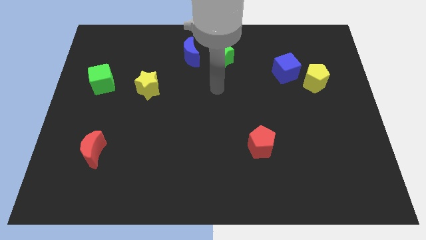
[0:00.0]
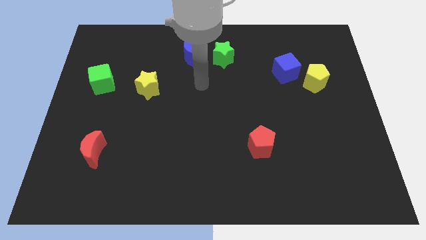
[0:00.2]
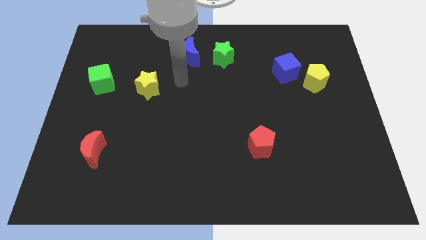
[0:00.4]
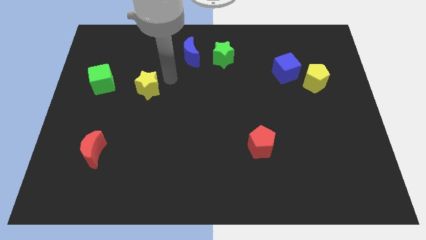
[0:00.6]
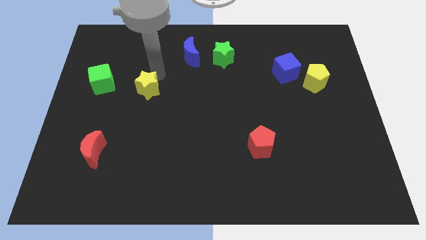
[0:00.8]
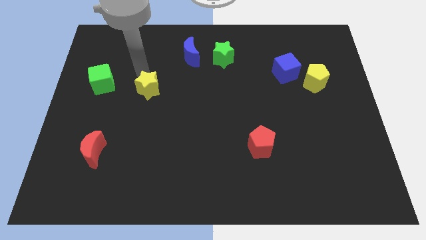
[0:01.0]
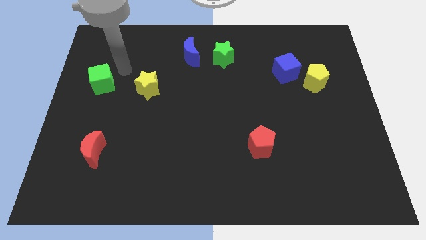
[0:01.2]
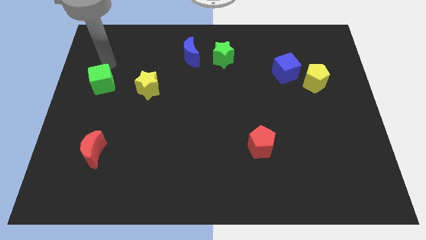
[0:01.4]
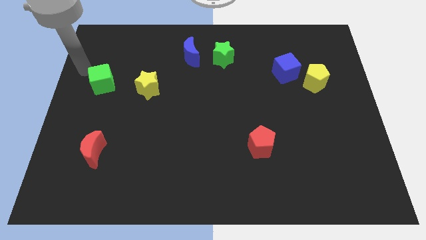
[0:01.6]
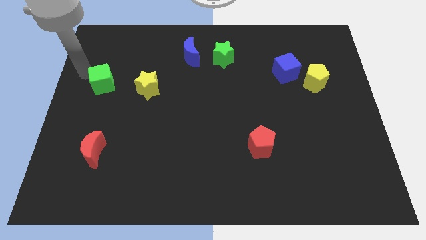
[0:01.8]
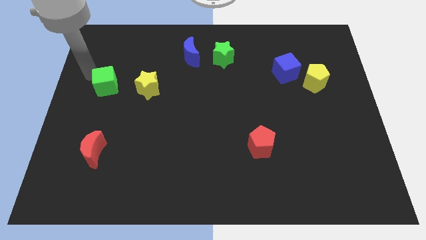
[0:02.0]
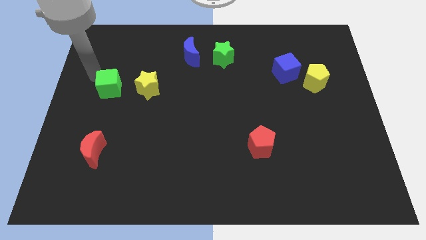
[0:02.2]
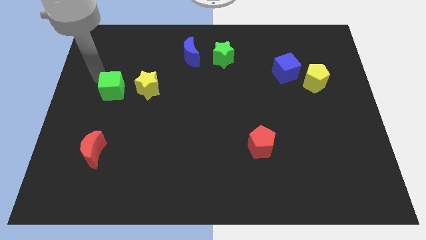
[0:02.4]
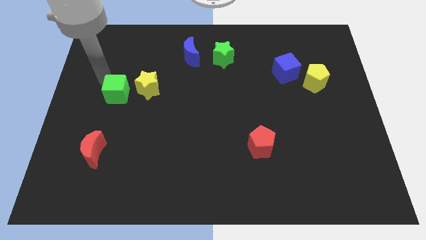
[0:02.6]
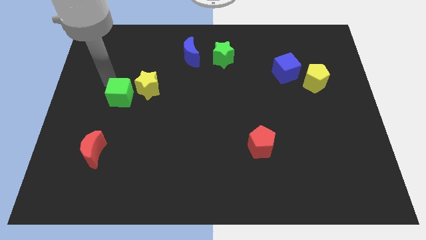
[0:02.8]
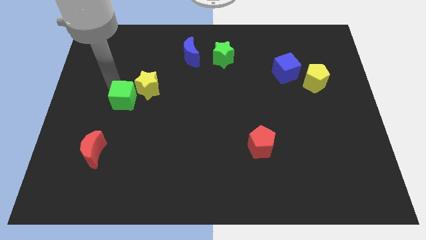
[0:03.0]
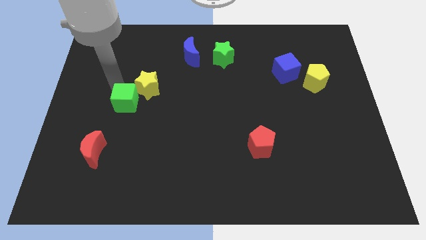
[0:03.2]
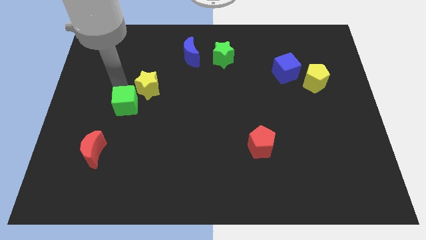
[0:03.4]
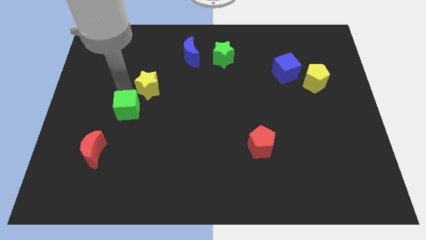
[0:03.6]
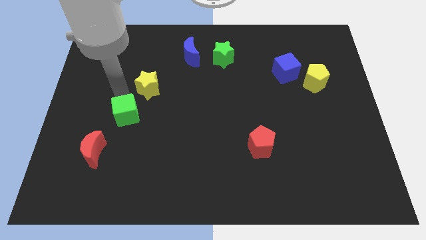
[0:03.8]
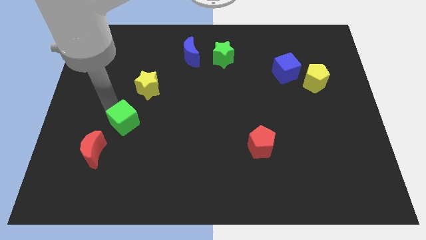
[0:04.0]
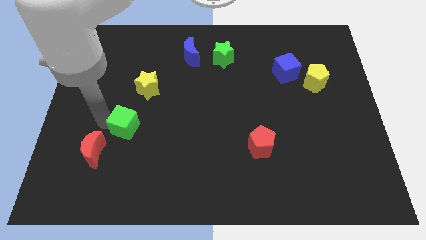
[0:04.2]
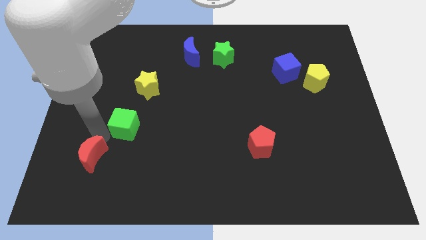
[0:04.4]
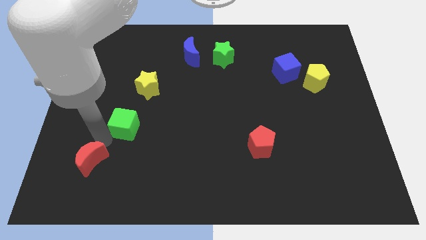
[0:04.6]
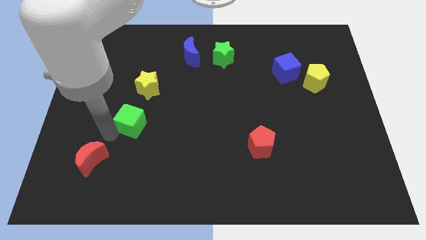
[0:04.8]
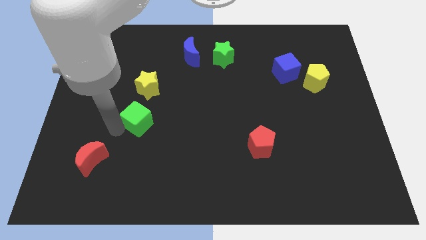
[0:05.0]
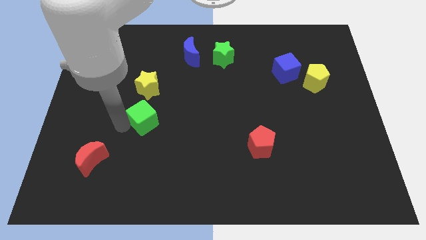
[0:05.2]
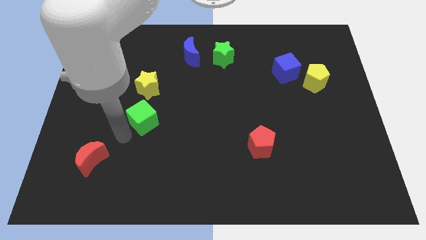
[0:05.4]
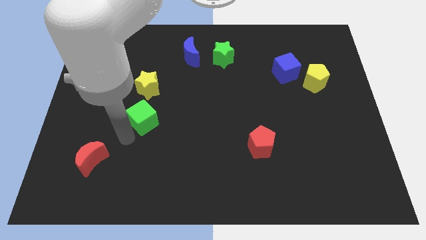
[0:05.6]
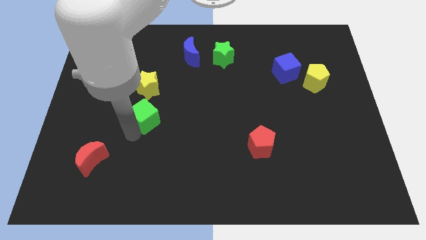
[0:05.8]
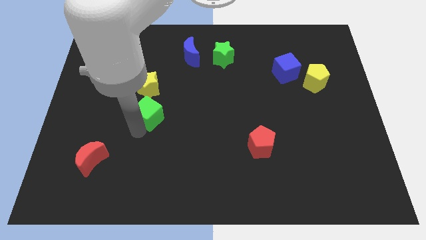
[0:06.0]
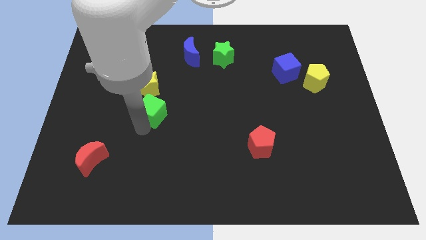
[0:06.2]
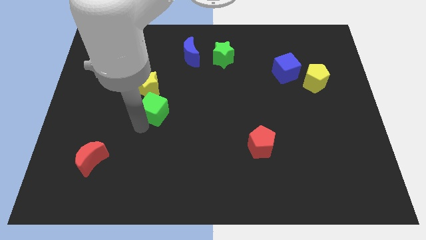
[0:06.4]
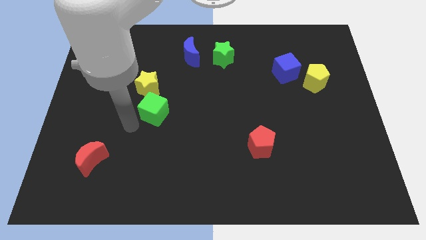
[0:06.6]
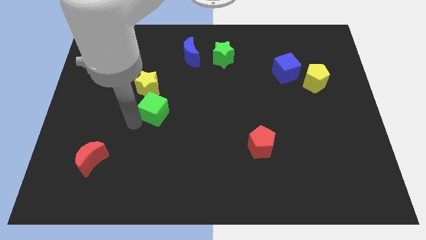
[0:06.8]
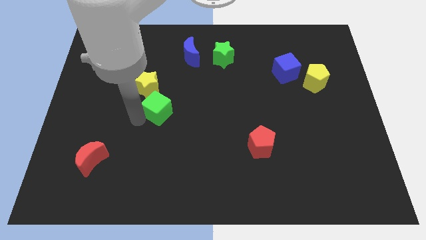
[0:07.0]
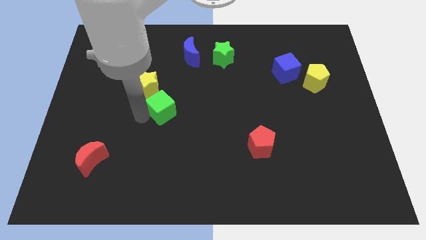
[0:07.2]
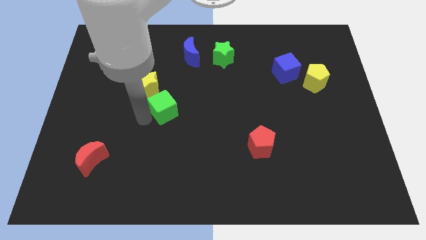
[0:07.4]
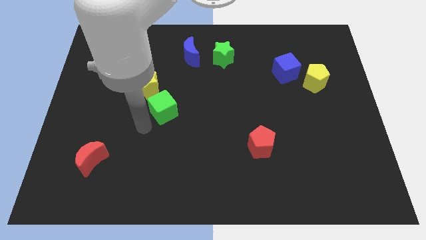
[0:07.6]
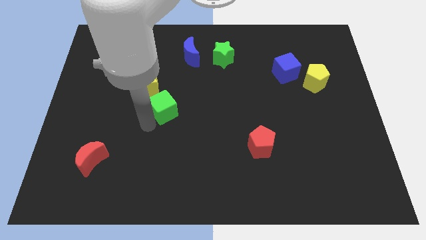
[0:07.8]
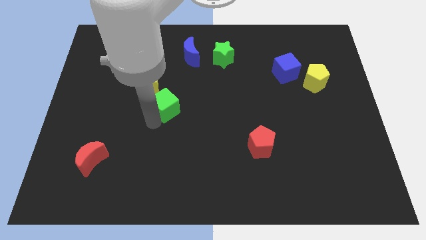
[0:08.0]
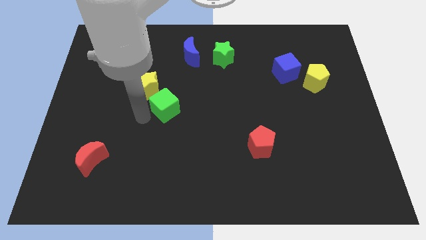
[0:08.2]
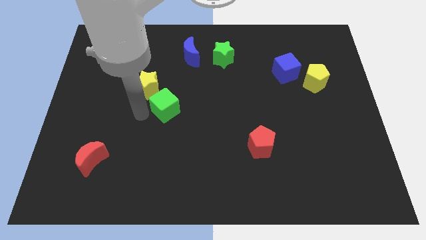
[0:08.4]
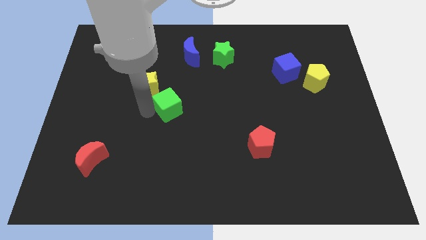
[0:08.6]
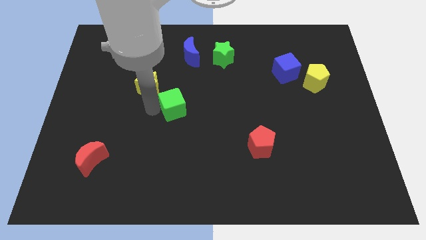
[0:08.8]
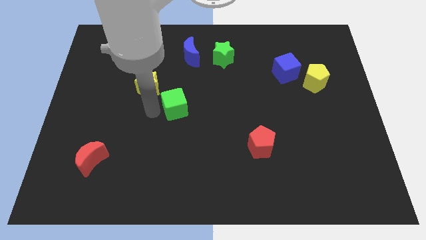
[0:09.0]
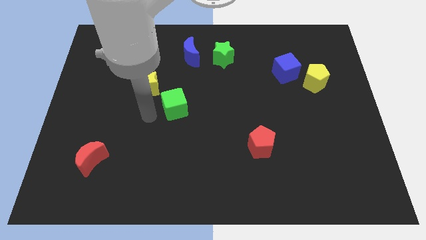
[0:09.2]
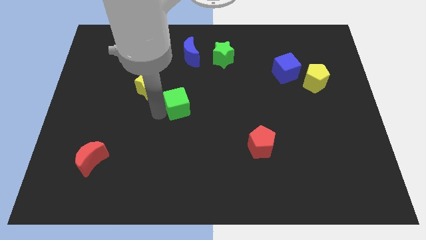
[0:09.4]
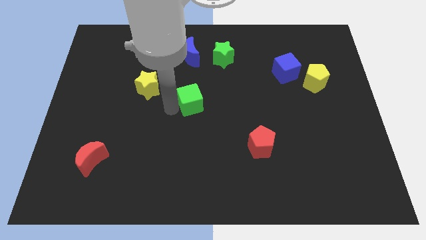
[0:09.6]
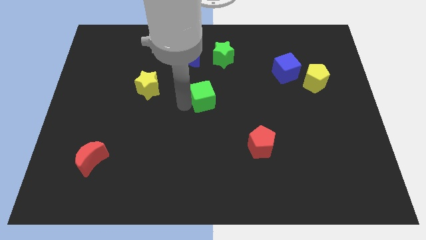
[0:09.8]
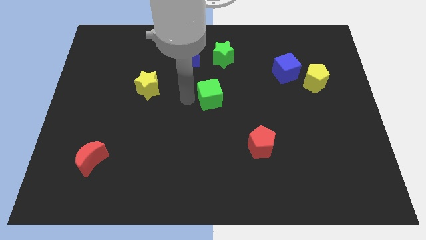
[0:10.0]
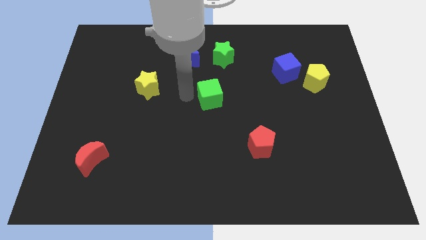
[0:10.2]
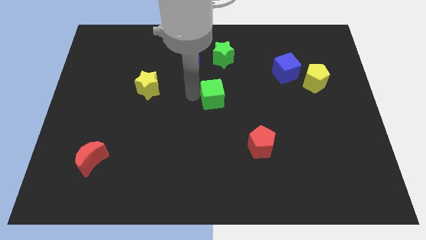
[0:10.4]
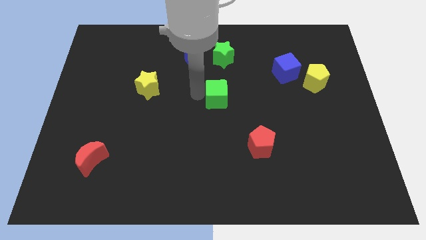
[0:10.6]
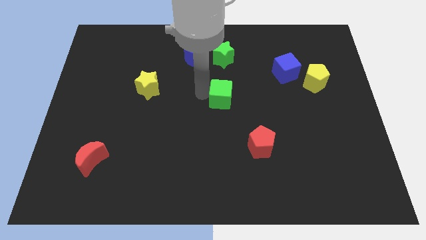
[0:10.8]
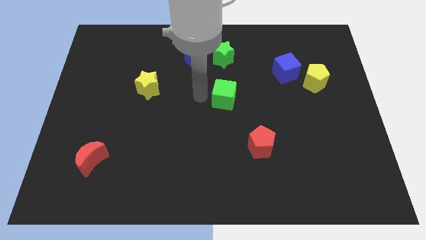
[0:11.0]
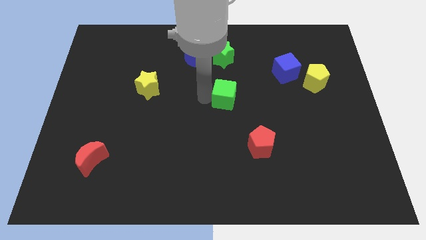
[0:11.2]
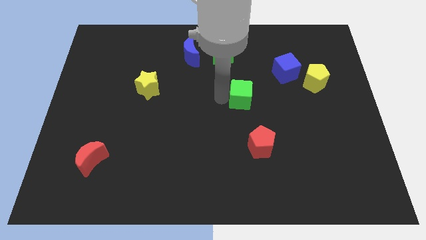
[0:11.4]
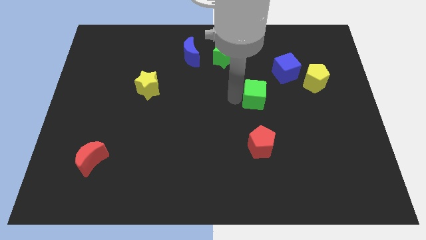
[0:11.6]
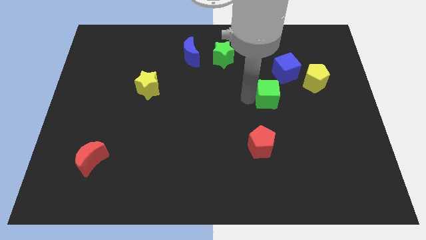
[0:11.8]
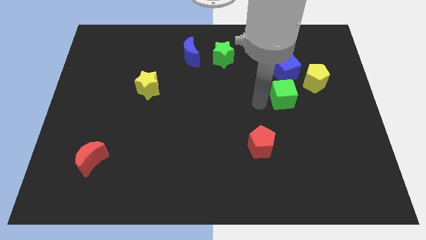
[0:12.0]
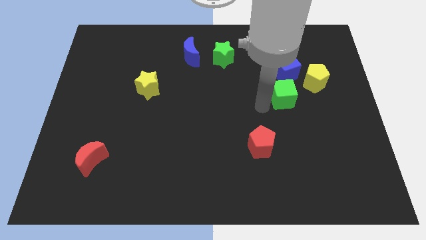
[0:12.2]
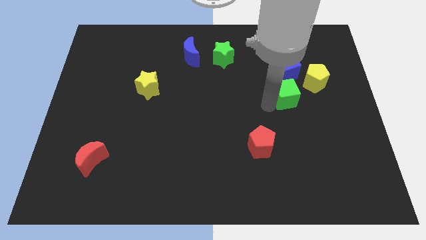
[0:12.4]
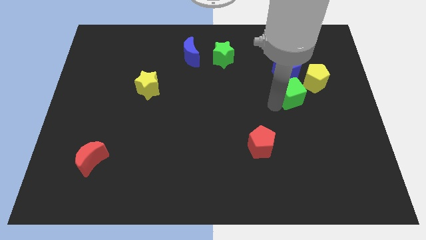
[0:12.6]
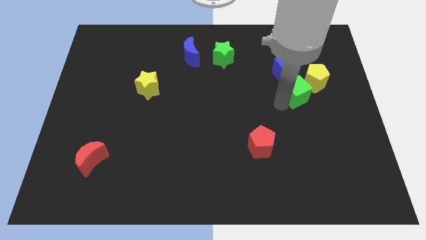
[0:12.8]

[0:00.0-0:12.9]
push the green cube to the bottom right side of the blue cube

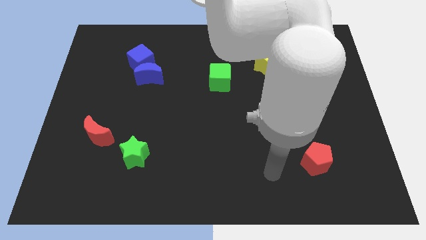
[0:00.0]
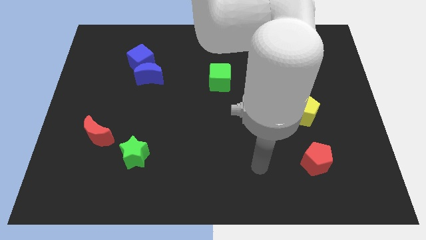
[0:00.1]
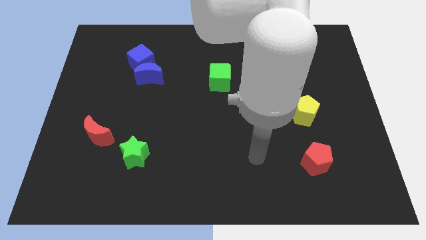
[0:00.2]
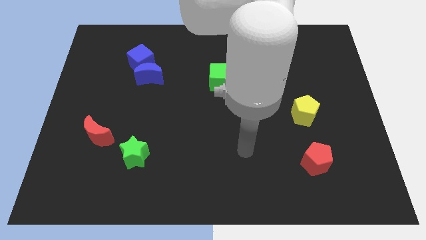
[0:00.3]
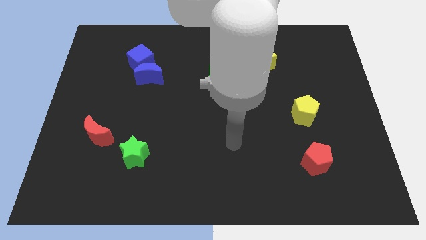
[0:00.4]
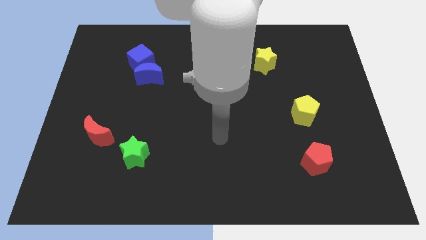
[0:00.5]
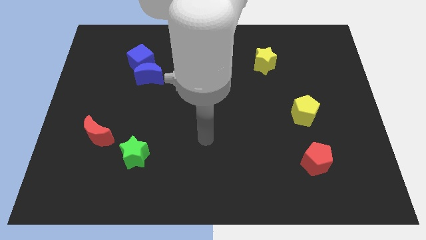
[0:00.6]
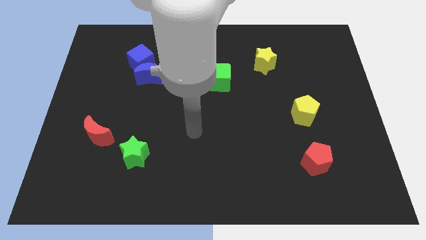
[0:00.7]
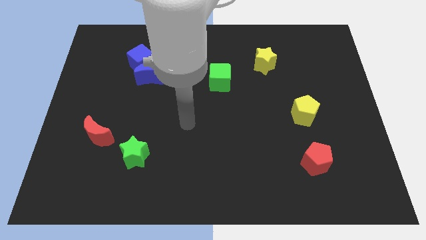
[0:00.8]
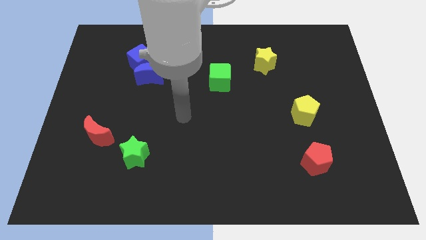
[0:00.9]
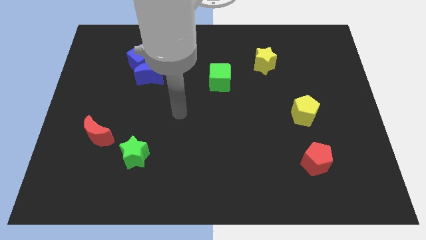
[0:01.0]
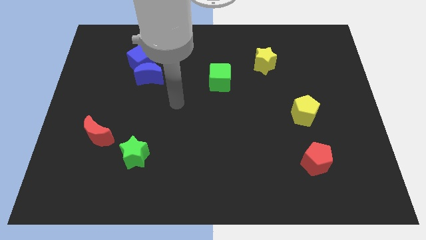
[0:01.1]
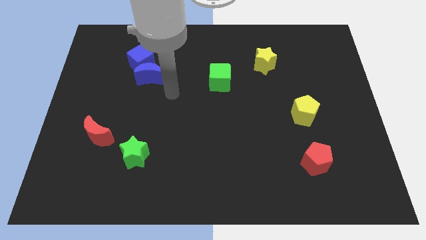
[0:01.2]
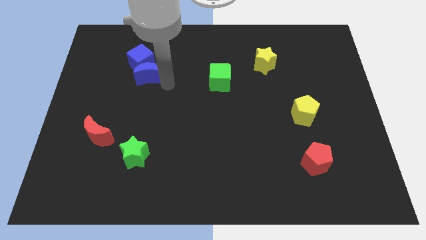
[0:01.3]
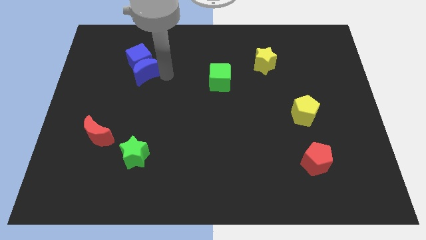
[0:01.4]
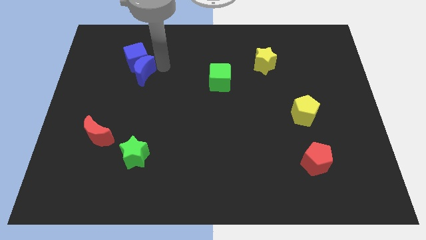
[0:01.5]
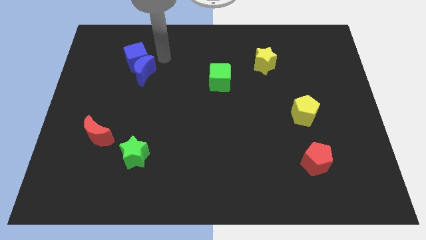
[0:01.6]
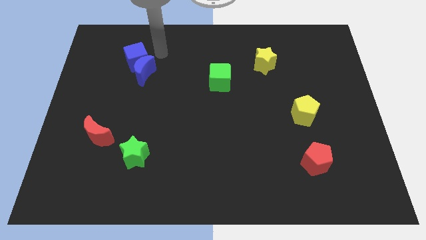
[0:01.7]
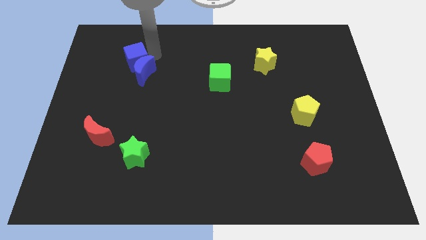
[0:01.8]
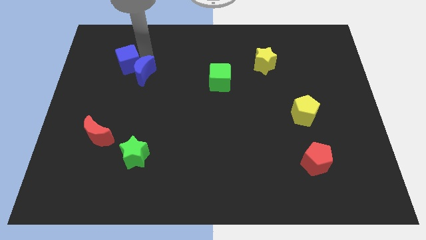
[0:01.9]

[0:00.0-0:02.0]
put the blue cube just left of the blue moon

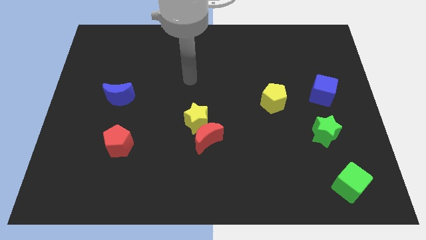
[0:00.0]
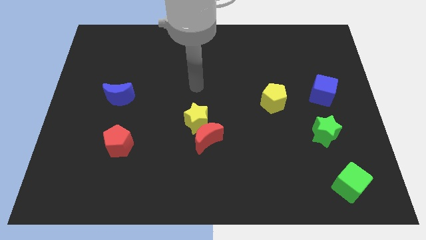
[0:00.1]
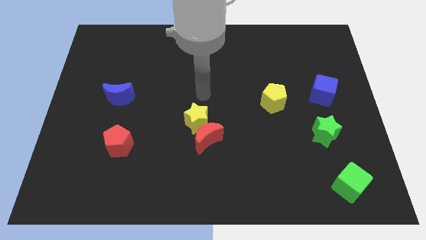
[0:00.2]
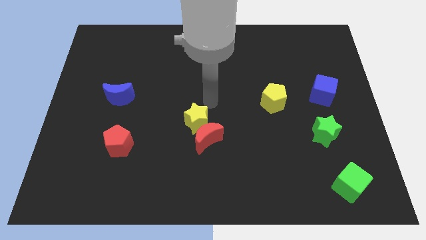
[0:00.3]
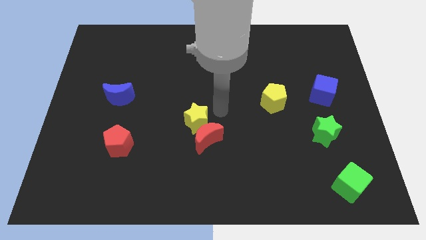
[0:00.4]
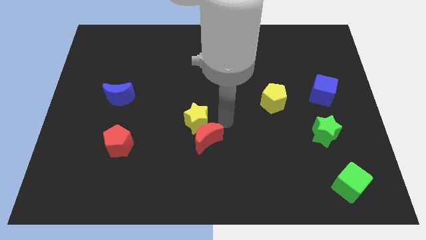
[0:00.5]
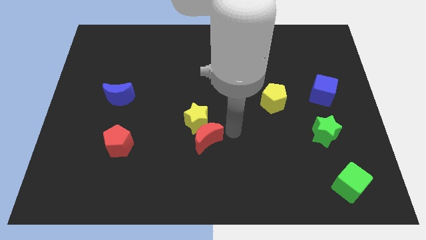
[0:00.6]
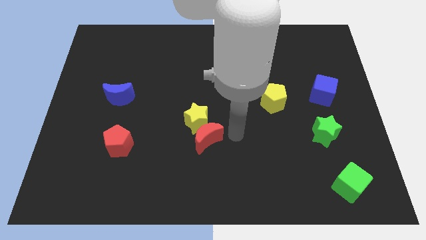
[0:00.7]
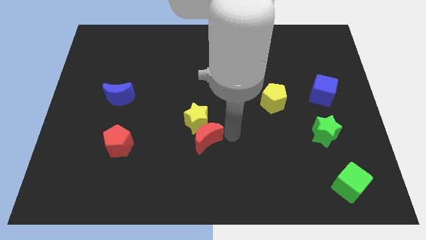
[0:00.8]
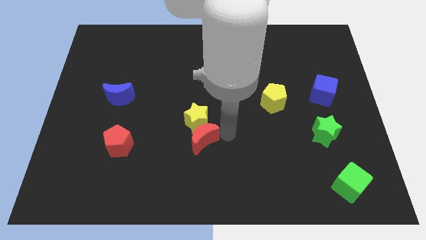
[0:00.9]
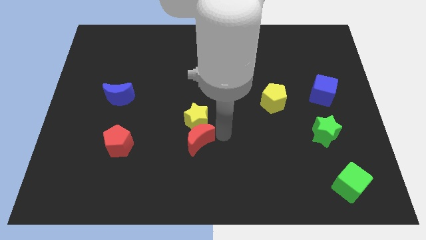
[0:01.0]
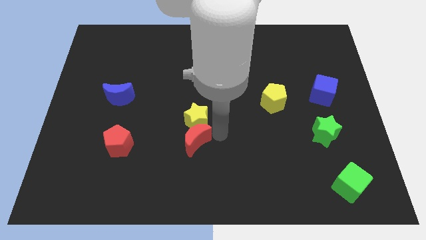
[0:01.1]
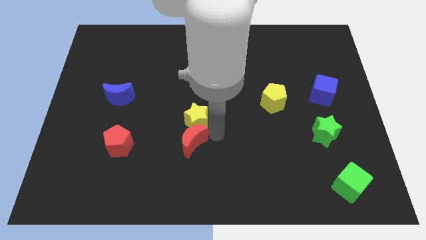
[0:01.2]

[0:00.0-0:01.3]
put the red moon to the right side of the red pentagon
